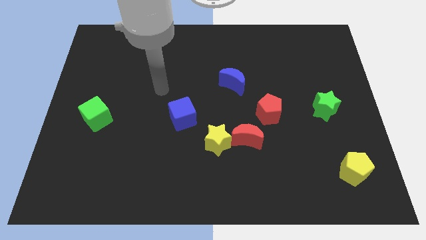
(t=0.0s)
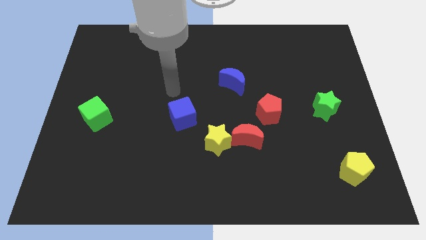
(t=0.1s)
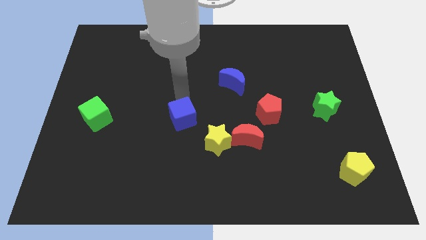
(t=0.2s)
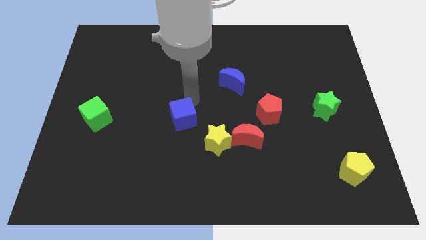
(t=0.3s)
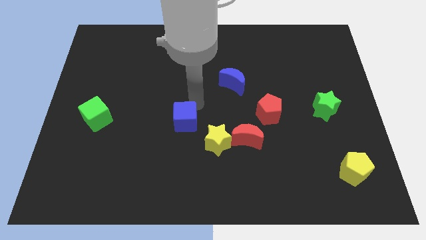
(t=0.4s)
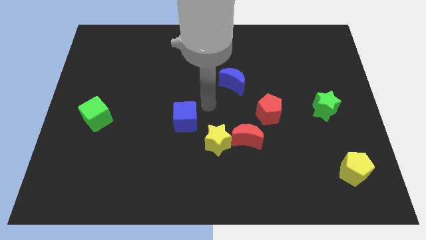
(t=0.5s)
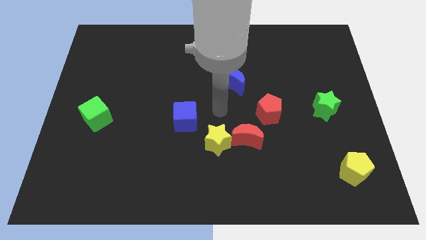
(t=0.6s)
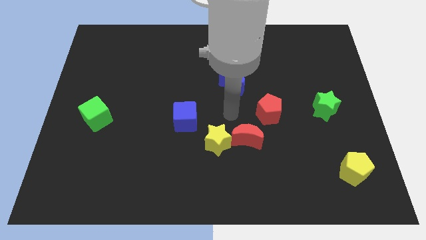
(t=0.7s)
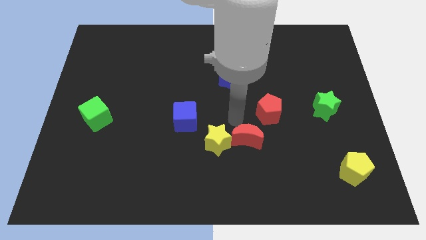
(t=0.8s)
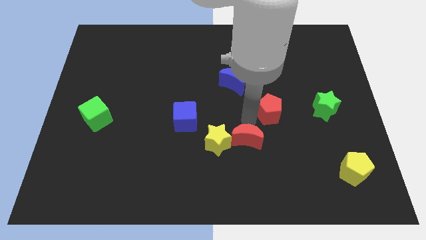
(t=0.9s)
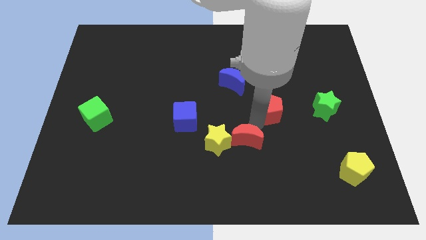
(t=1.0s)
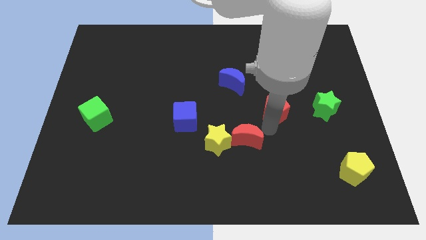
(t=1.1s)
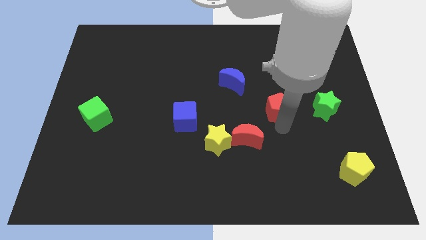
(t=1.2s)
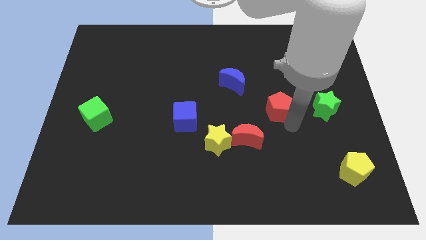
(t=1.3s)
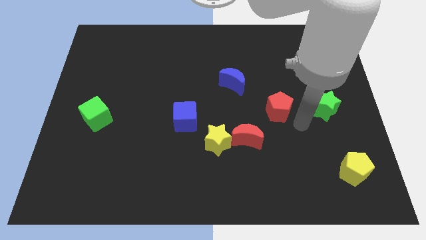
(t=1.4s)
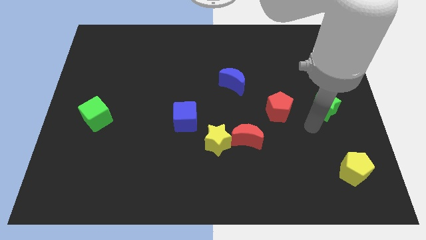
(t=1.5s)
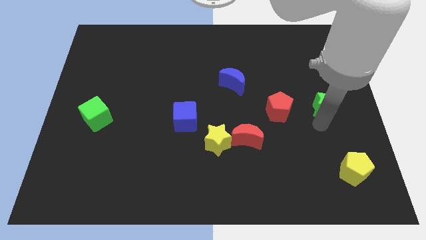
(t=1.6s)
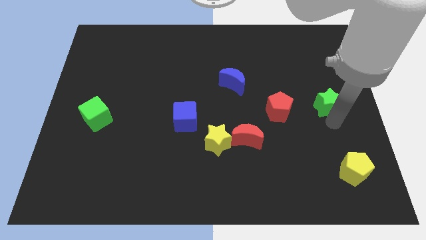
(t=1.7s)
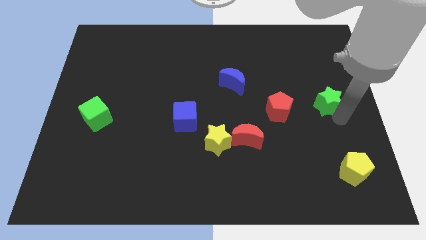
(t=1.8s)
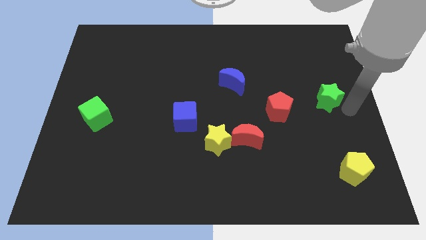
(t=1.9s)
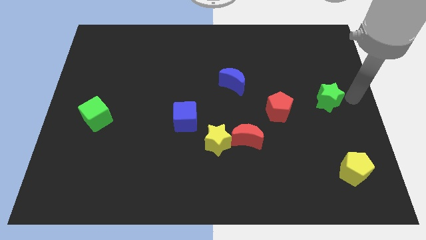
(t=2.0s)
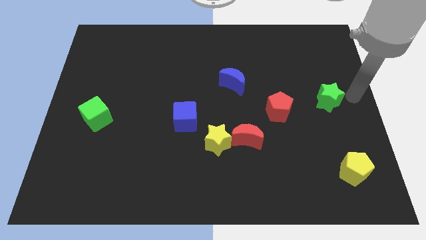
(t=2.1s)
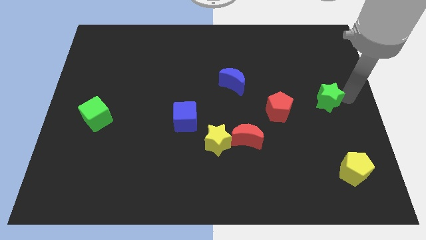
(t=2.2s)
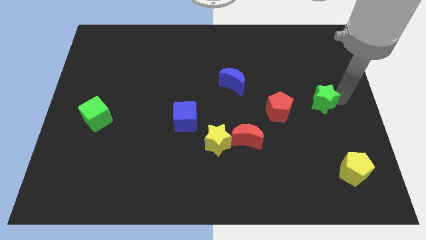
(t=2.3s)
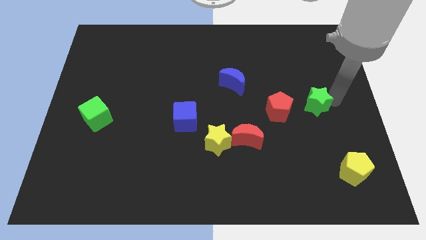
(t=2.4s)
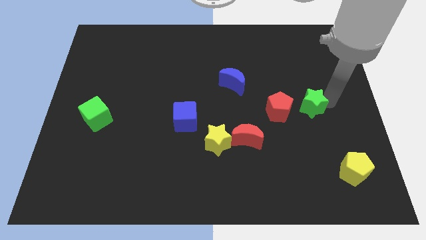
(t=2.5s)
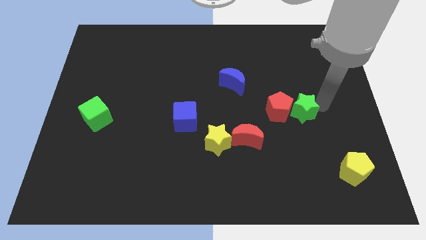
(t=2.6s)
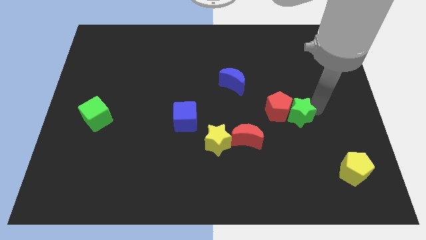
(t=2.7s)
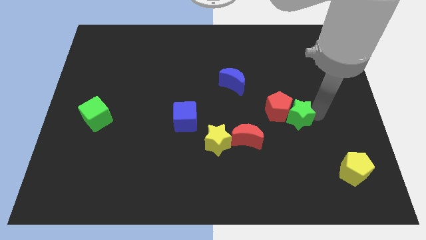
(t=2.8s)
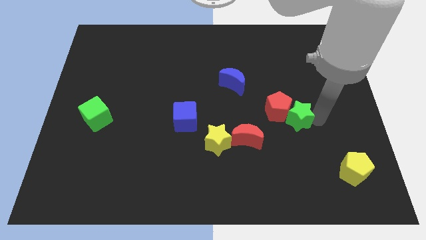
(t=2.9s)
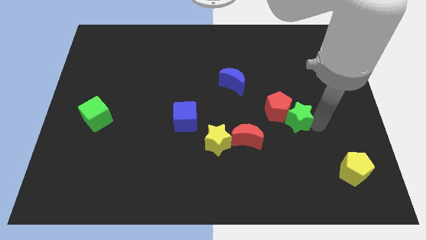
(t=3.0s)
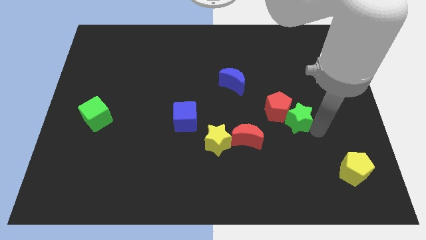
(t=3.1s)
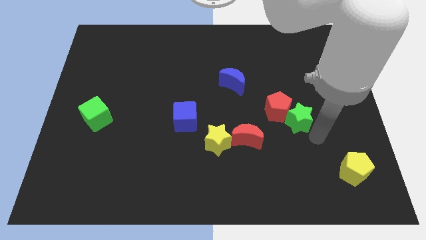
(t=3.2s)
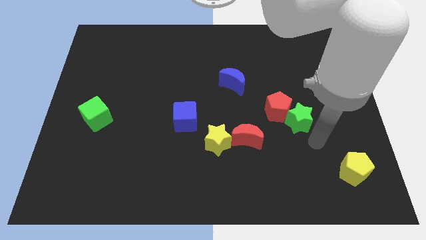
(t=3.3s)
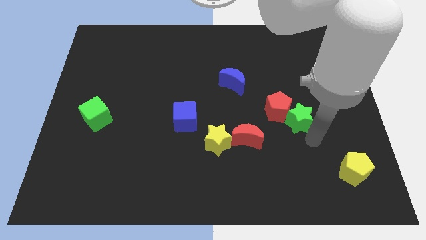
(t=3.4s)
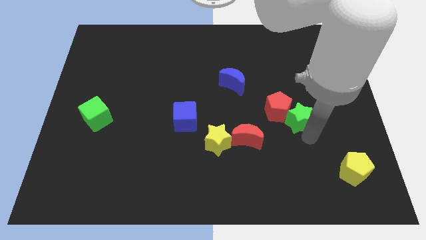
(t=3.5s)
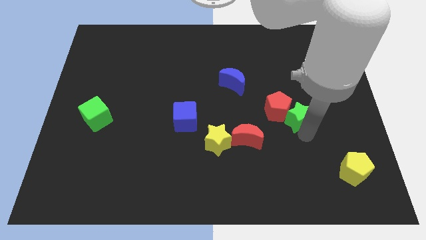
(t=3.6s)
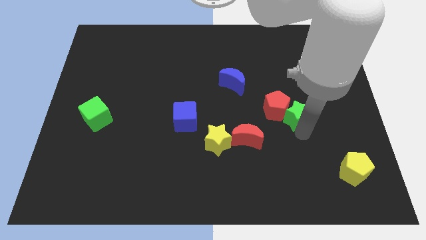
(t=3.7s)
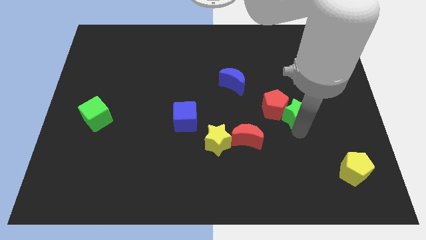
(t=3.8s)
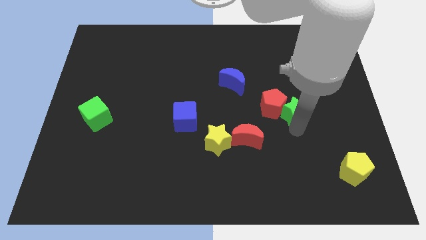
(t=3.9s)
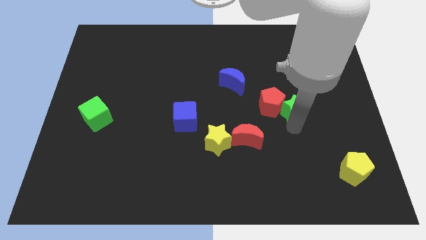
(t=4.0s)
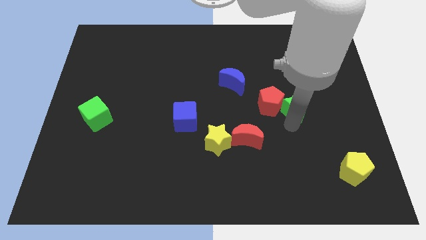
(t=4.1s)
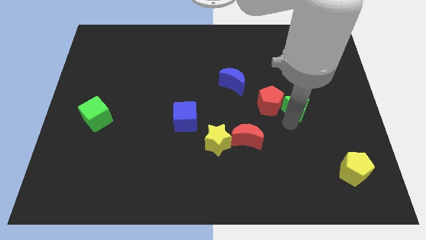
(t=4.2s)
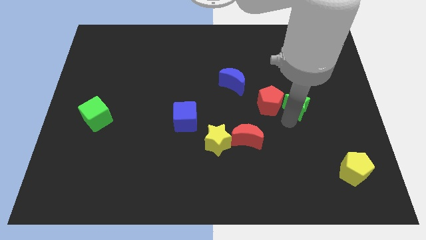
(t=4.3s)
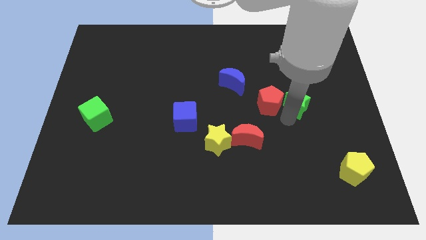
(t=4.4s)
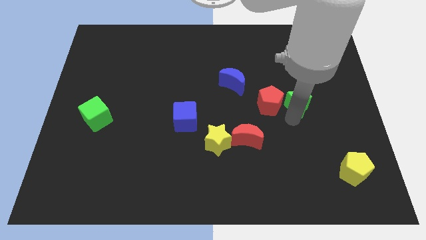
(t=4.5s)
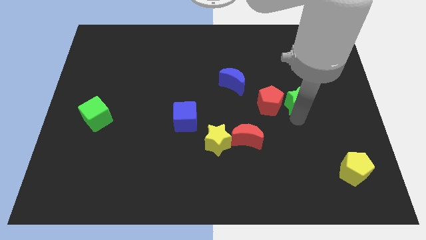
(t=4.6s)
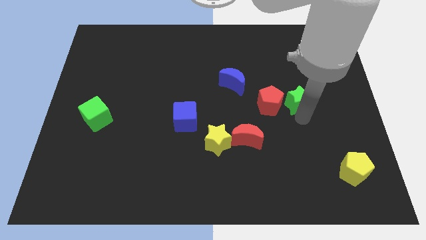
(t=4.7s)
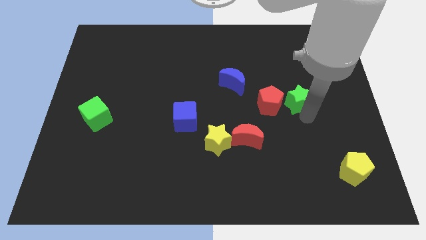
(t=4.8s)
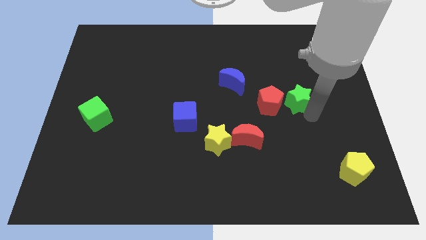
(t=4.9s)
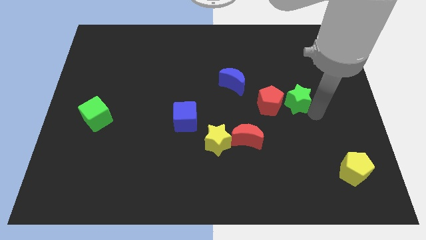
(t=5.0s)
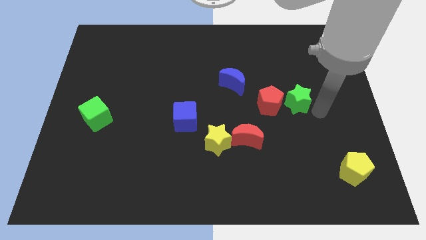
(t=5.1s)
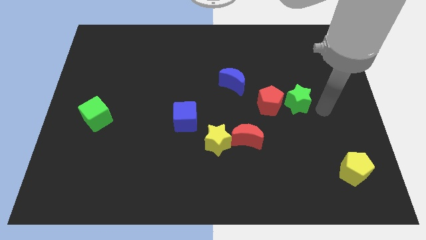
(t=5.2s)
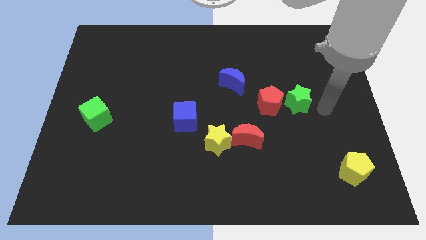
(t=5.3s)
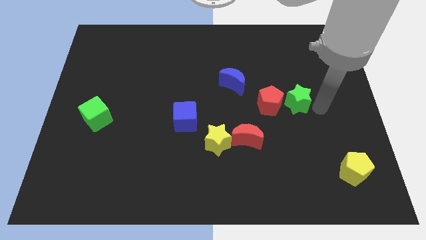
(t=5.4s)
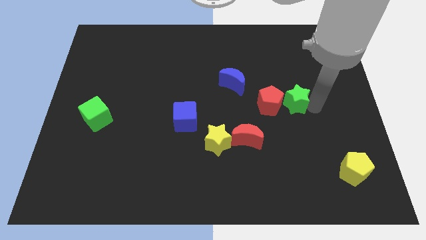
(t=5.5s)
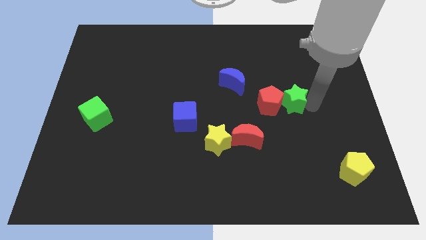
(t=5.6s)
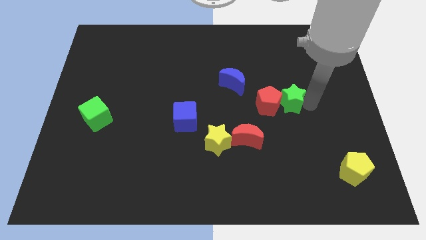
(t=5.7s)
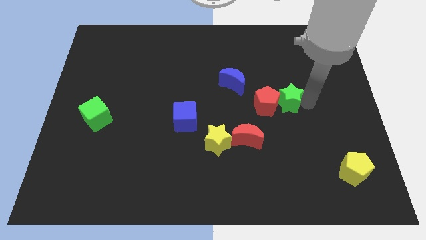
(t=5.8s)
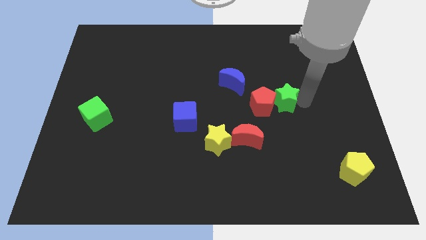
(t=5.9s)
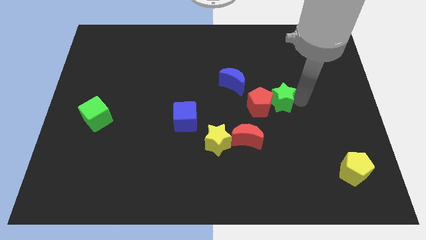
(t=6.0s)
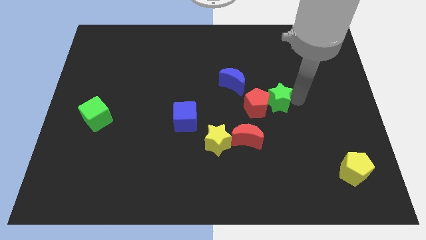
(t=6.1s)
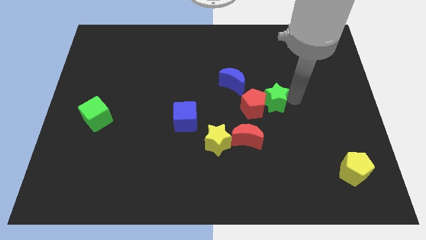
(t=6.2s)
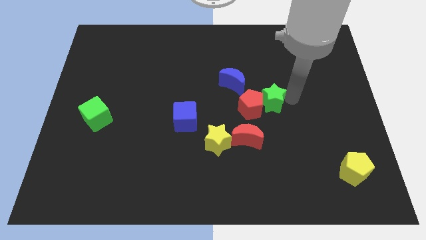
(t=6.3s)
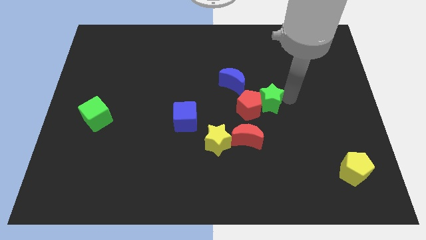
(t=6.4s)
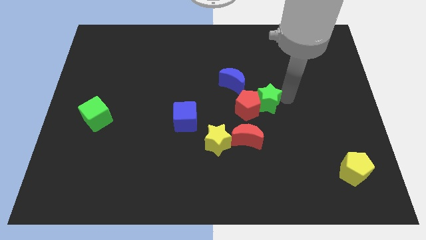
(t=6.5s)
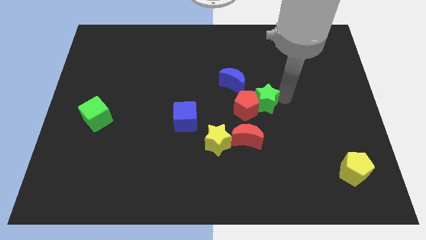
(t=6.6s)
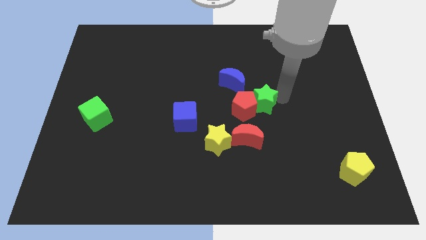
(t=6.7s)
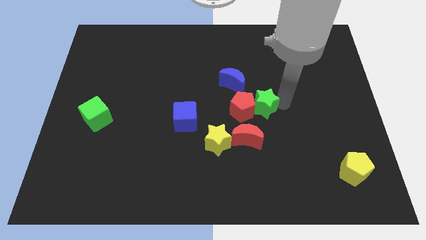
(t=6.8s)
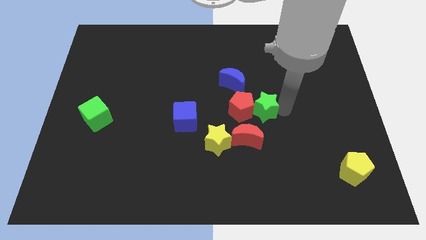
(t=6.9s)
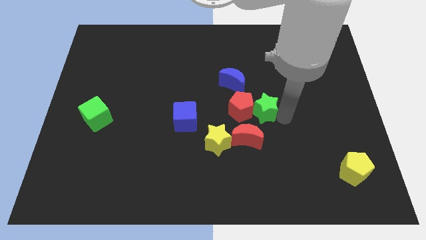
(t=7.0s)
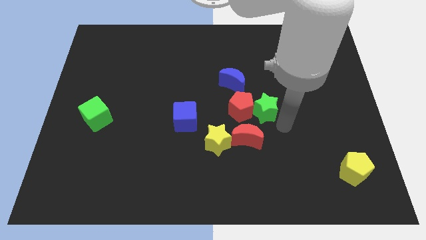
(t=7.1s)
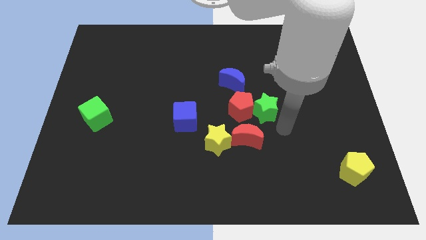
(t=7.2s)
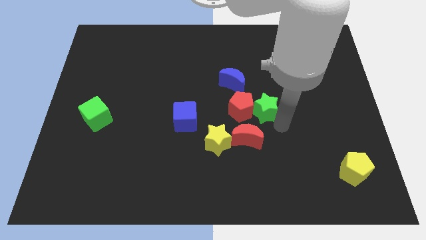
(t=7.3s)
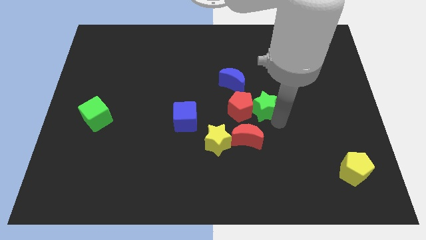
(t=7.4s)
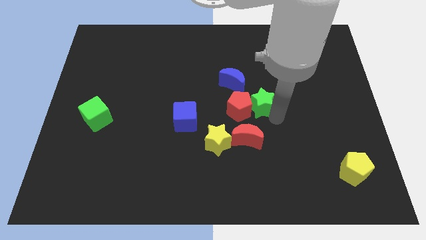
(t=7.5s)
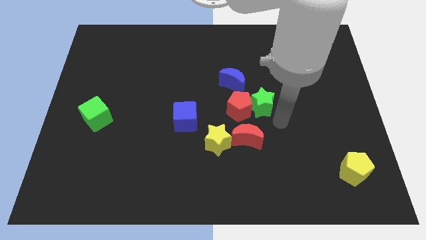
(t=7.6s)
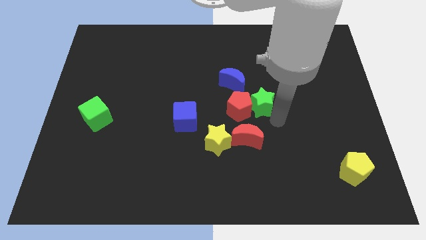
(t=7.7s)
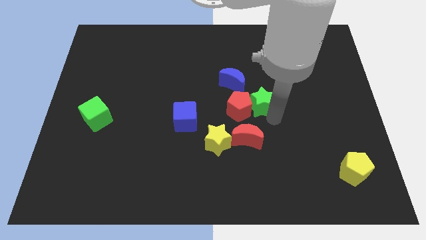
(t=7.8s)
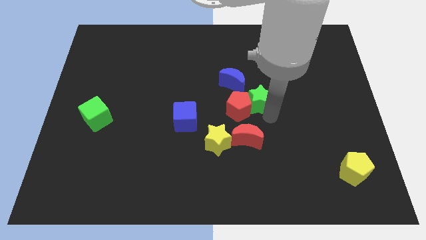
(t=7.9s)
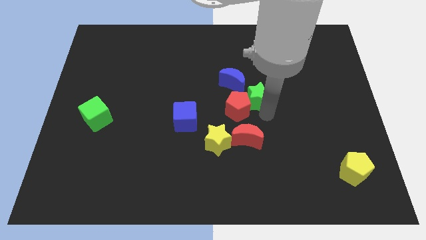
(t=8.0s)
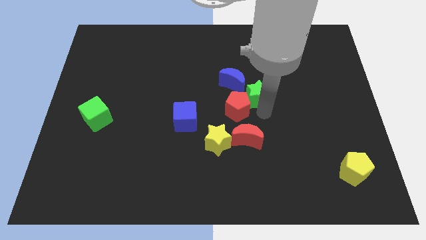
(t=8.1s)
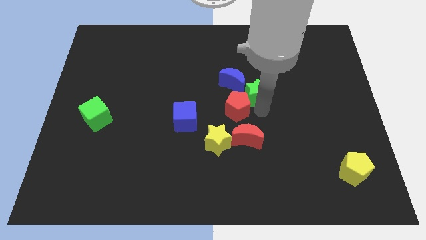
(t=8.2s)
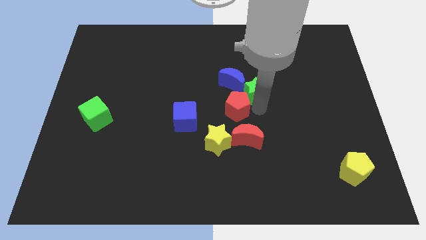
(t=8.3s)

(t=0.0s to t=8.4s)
push the green star next to the blue moon

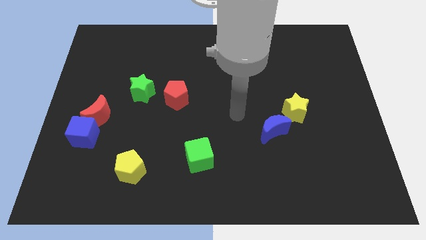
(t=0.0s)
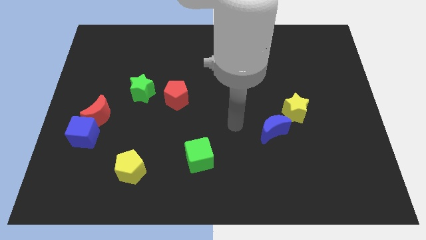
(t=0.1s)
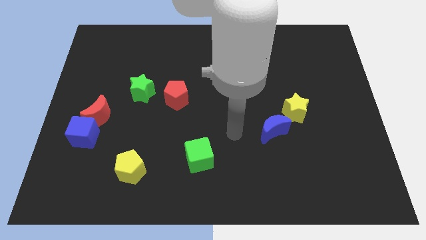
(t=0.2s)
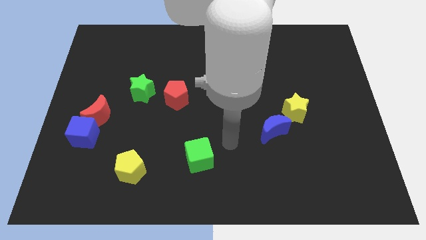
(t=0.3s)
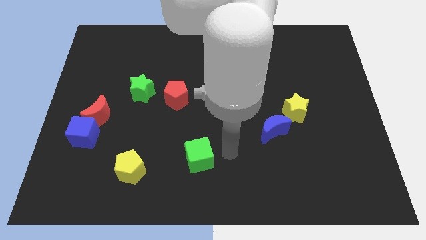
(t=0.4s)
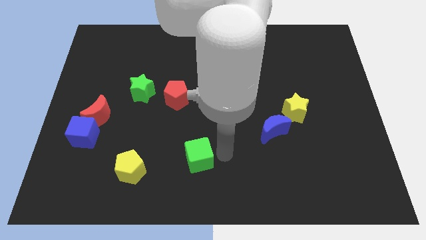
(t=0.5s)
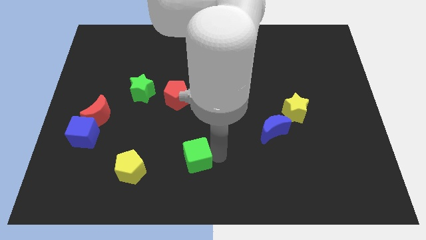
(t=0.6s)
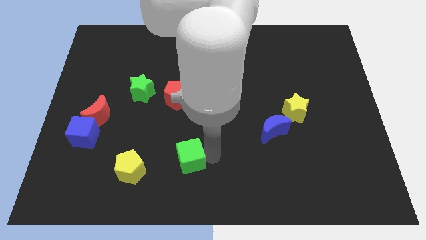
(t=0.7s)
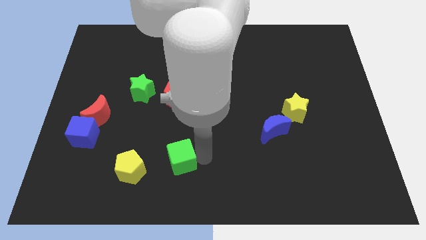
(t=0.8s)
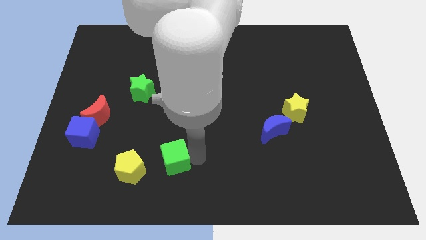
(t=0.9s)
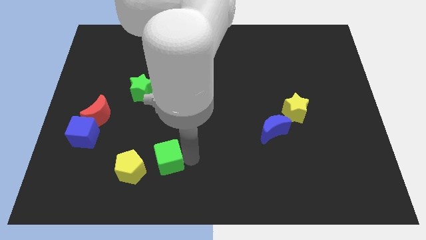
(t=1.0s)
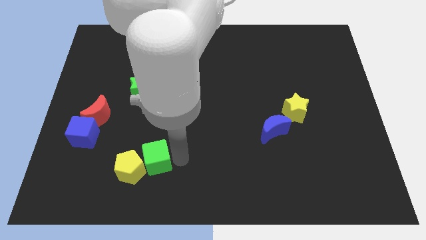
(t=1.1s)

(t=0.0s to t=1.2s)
put the green cube to the yellow pentagon
